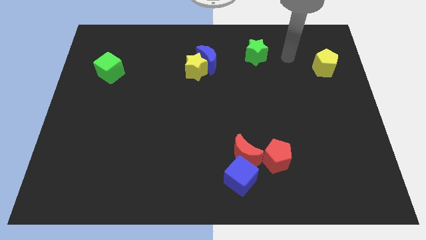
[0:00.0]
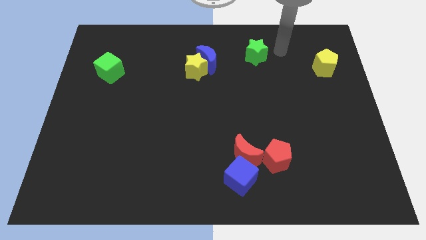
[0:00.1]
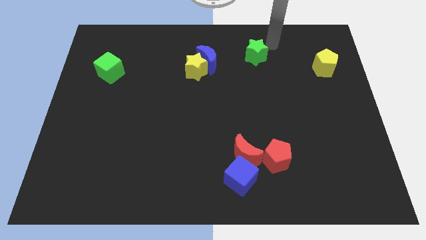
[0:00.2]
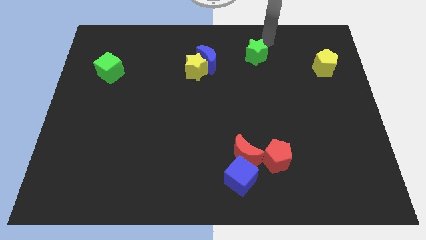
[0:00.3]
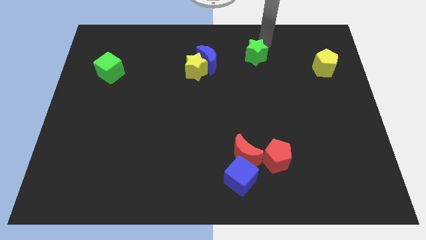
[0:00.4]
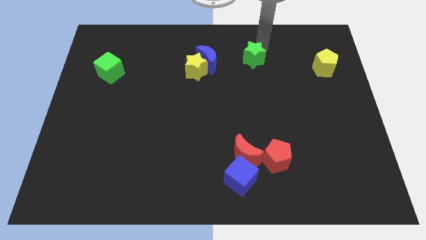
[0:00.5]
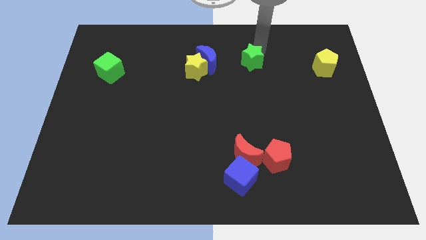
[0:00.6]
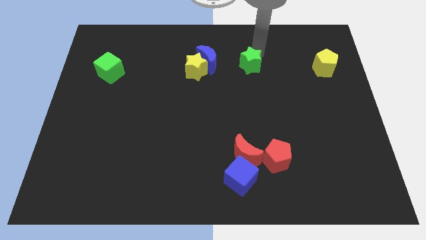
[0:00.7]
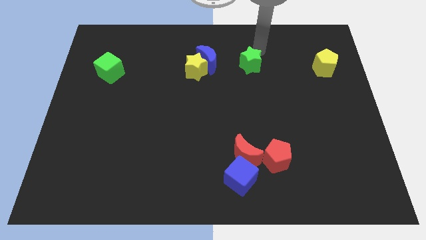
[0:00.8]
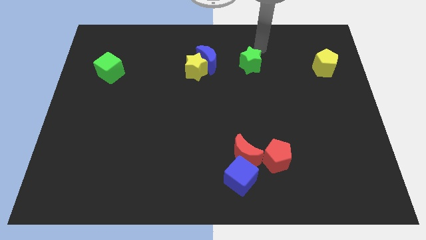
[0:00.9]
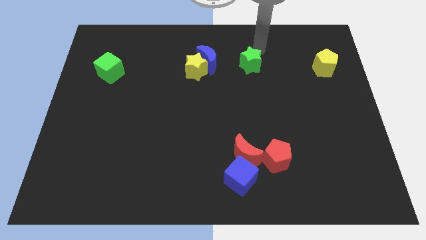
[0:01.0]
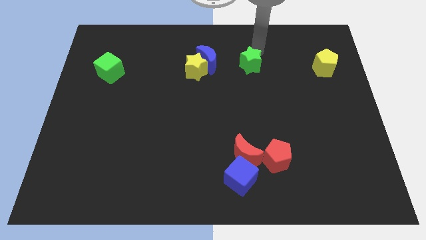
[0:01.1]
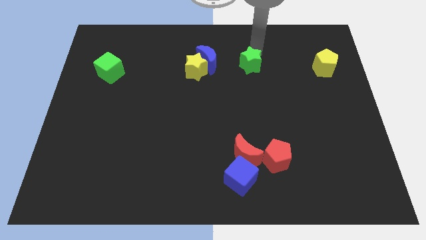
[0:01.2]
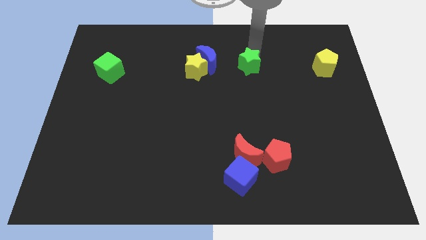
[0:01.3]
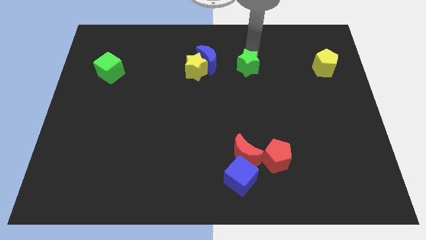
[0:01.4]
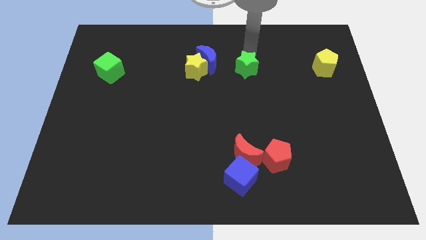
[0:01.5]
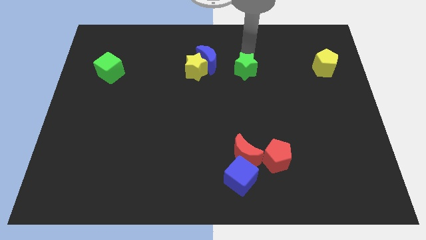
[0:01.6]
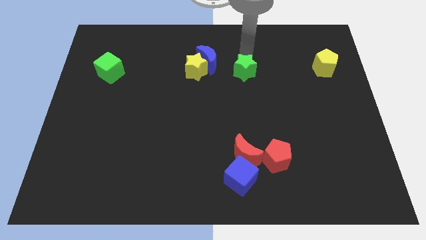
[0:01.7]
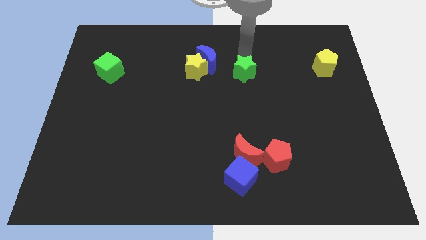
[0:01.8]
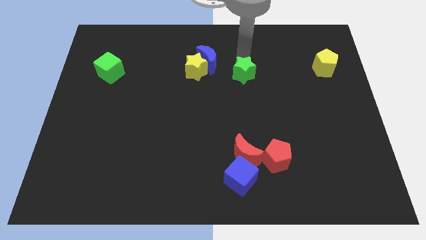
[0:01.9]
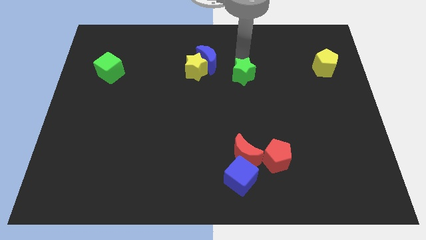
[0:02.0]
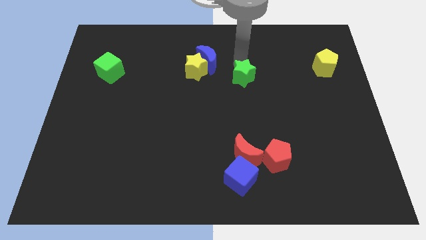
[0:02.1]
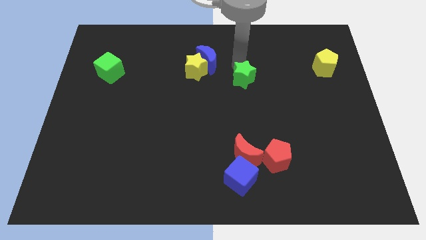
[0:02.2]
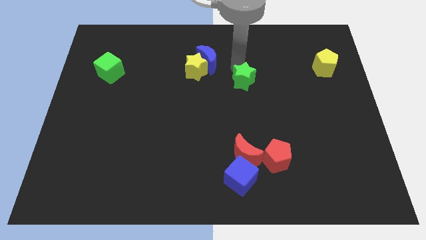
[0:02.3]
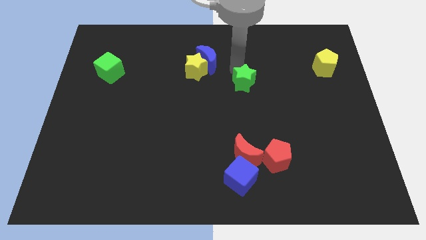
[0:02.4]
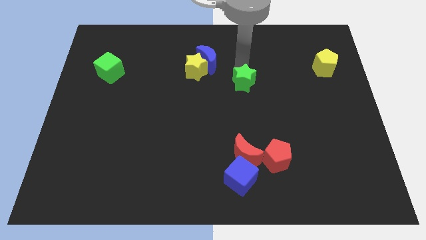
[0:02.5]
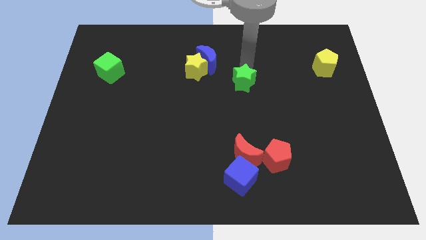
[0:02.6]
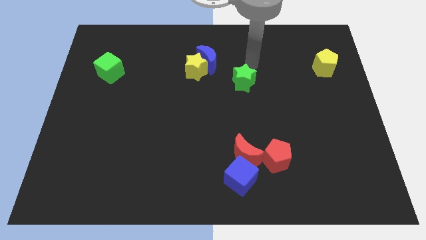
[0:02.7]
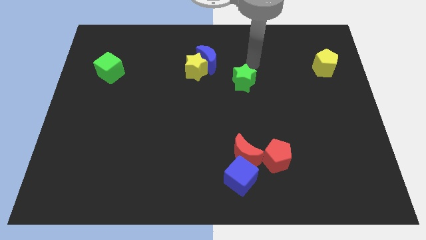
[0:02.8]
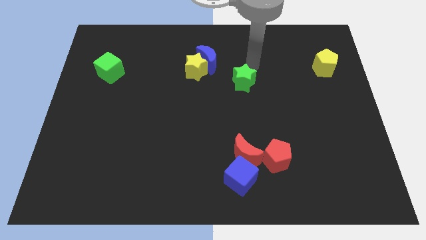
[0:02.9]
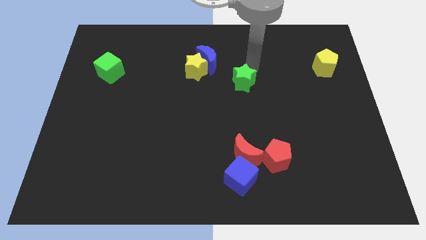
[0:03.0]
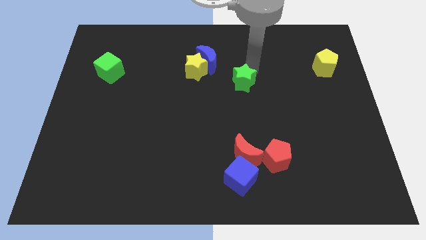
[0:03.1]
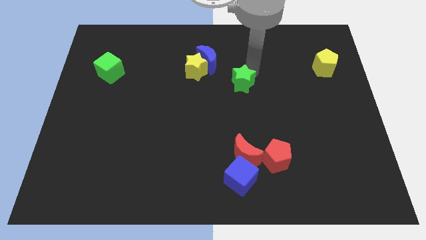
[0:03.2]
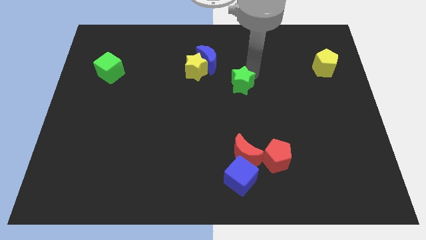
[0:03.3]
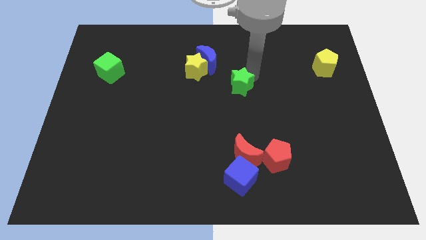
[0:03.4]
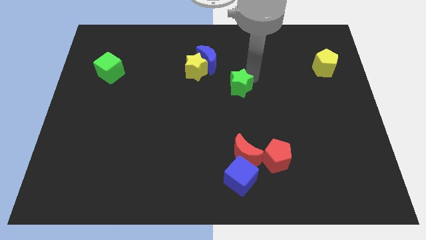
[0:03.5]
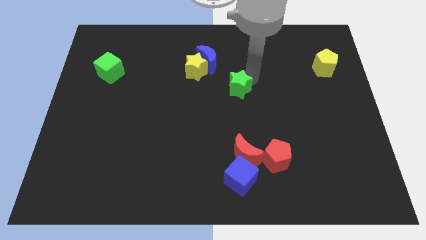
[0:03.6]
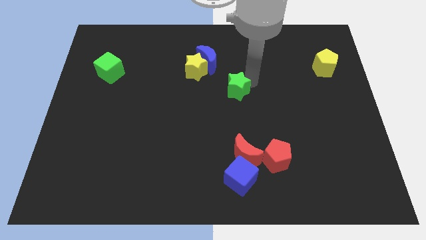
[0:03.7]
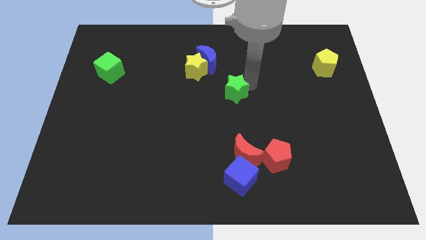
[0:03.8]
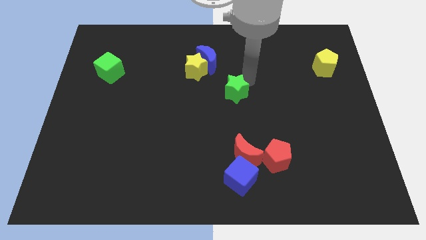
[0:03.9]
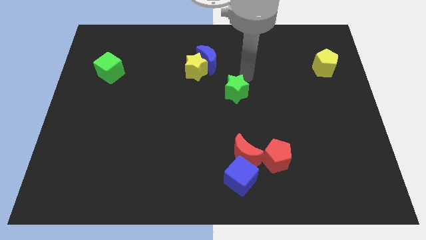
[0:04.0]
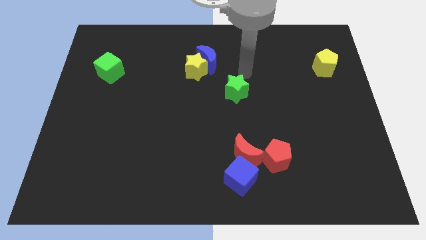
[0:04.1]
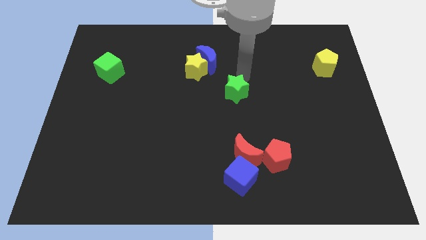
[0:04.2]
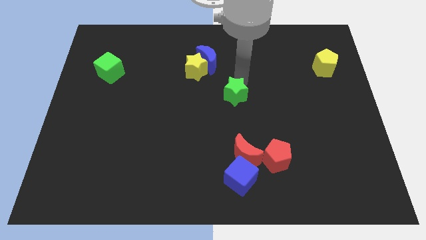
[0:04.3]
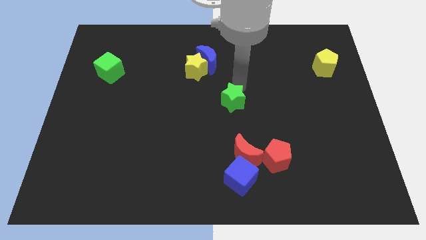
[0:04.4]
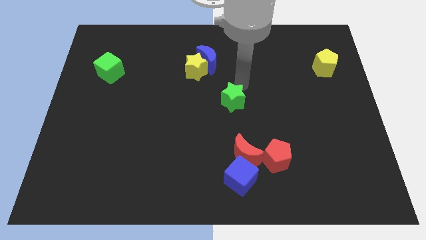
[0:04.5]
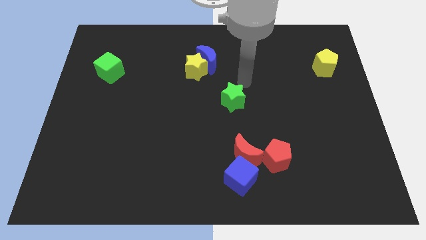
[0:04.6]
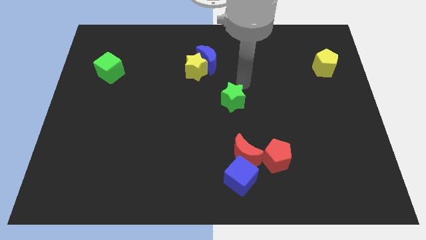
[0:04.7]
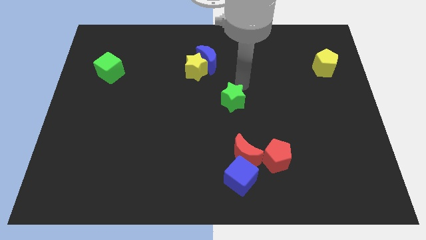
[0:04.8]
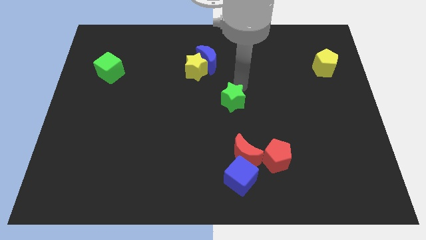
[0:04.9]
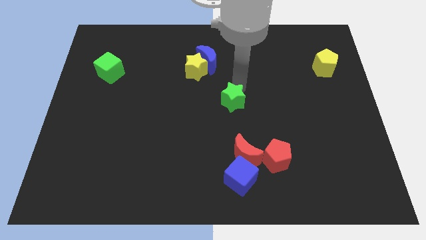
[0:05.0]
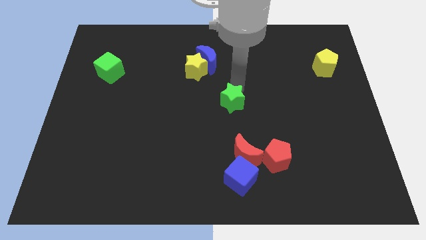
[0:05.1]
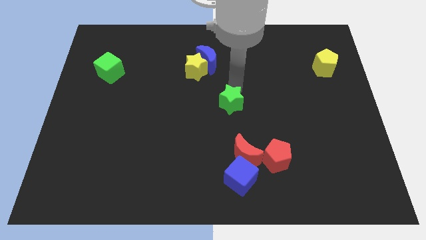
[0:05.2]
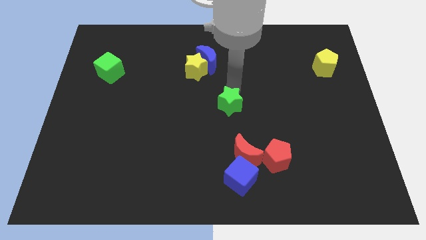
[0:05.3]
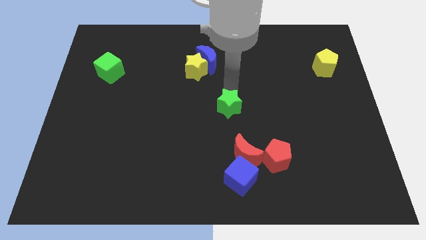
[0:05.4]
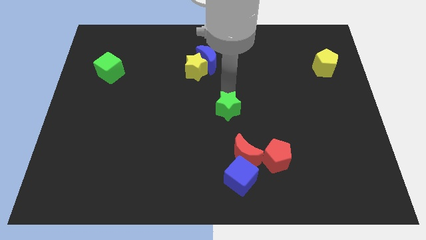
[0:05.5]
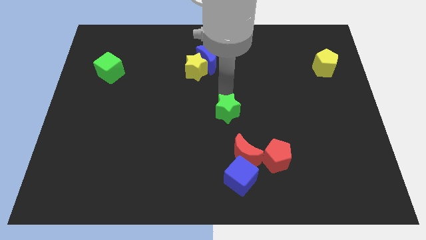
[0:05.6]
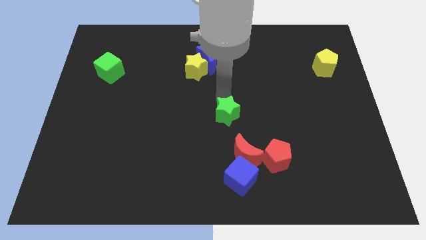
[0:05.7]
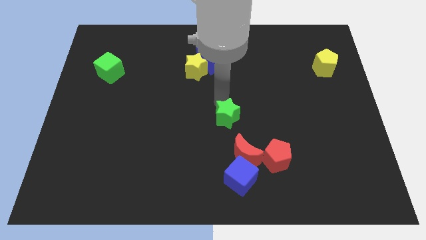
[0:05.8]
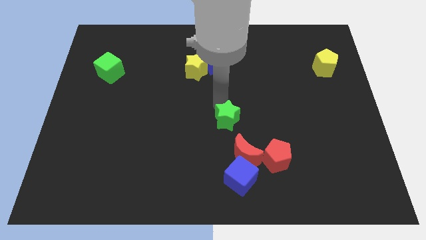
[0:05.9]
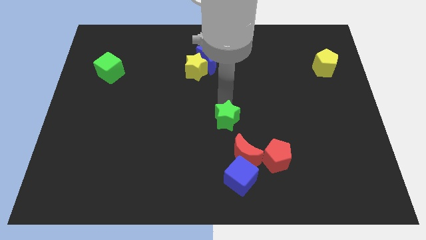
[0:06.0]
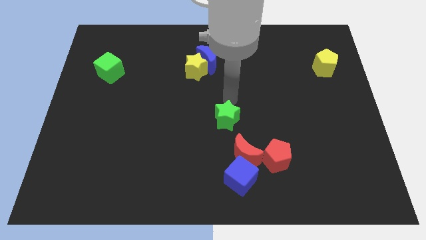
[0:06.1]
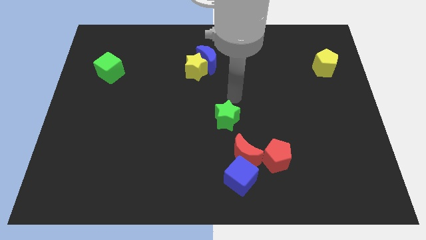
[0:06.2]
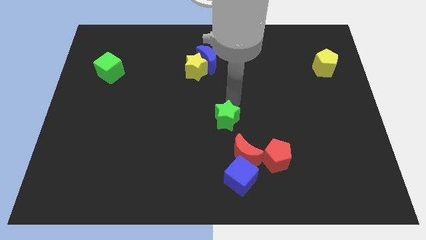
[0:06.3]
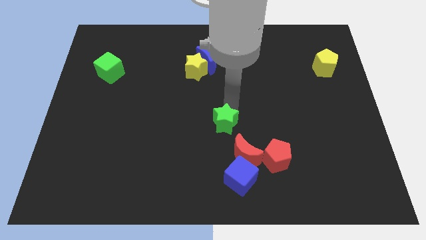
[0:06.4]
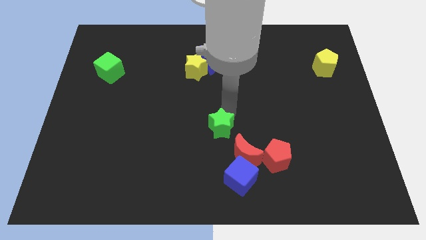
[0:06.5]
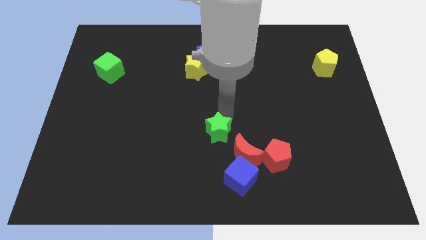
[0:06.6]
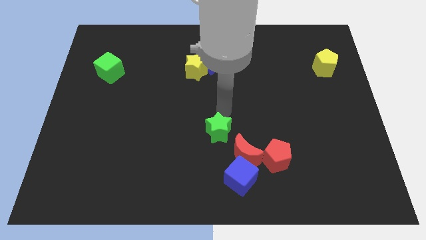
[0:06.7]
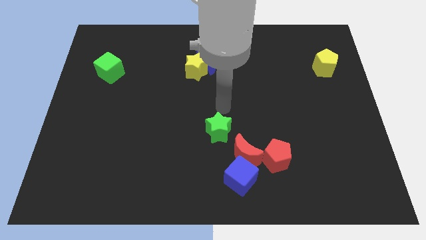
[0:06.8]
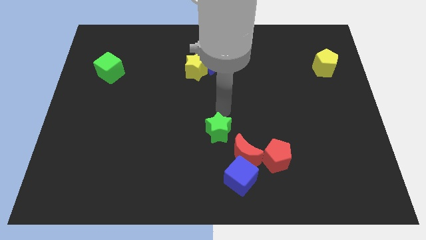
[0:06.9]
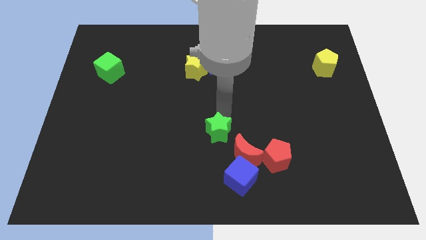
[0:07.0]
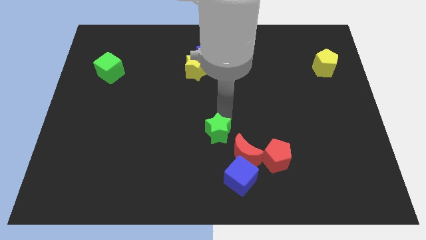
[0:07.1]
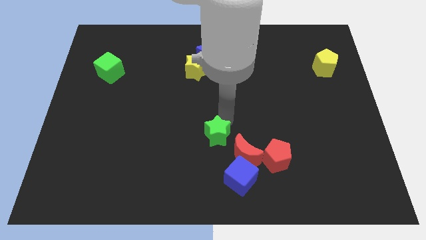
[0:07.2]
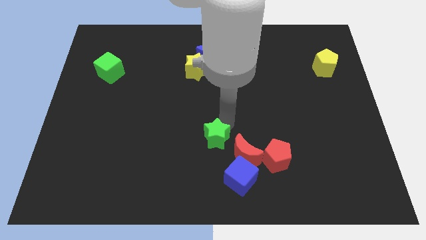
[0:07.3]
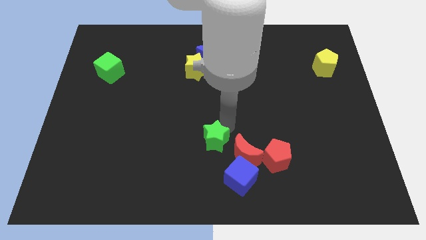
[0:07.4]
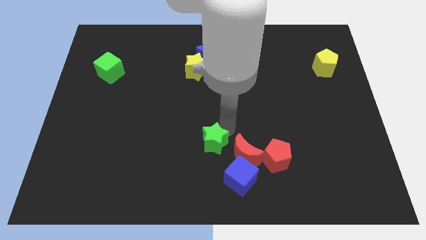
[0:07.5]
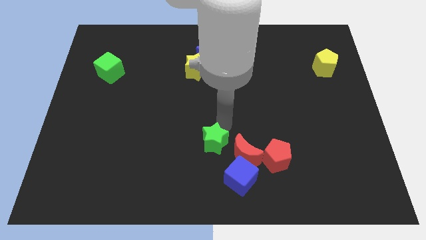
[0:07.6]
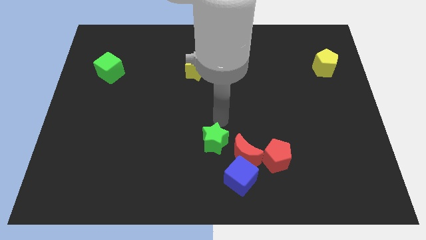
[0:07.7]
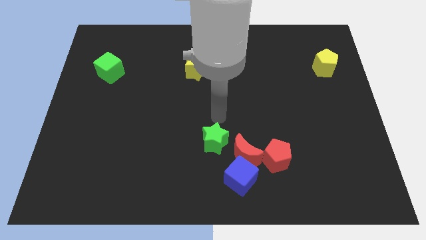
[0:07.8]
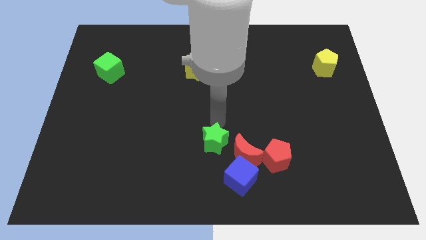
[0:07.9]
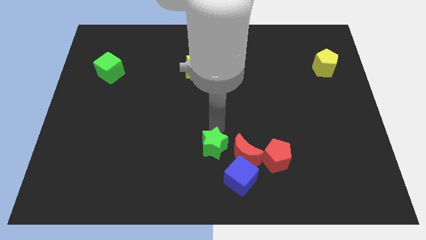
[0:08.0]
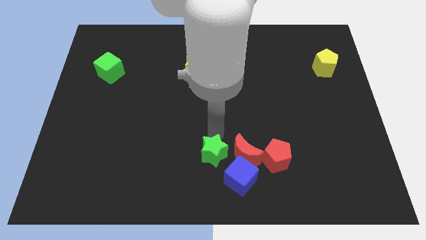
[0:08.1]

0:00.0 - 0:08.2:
move the green star to the bottom side
